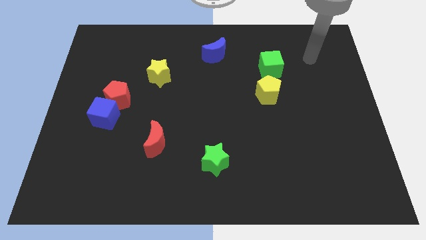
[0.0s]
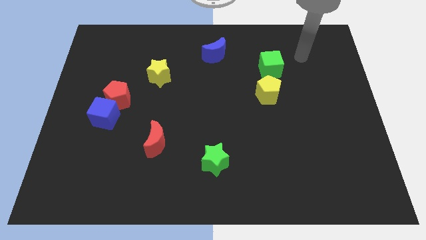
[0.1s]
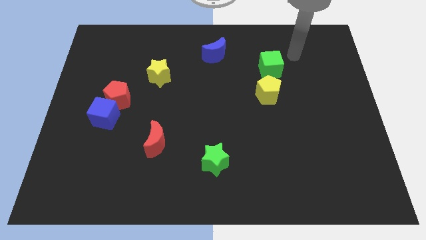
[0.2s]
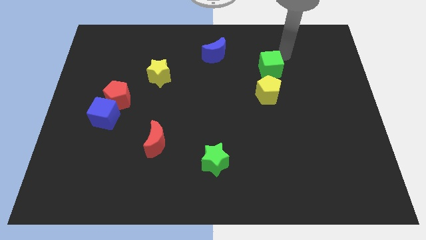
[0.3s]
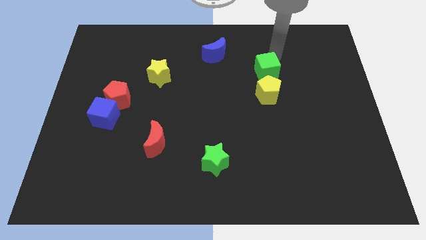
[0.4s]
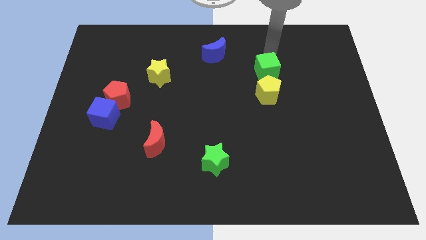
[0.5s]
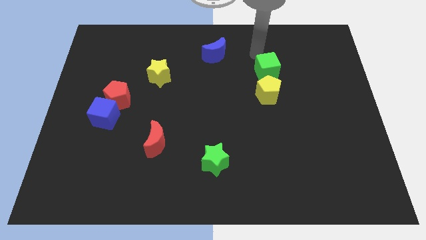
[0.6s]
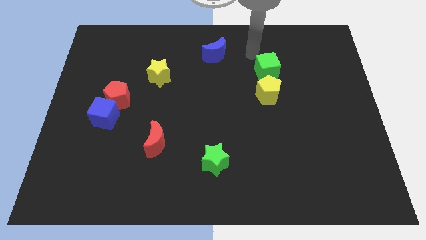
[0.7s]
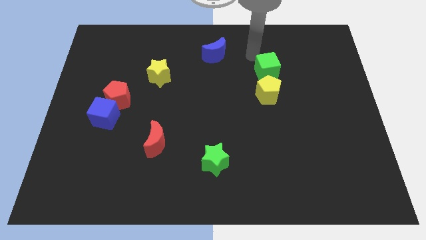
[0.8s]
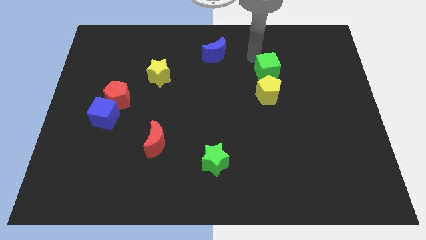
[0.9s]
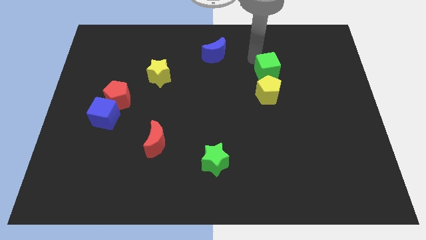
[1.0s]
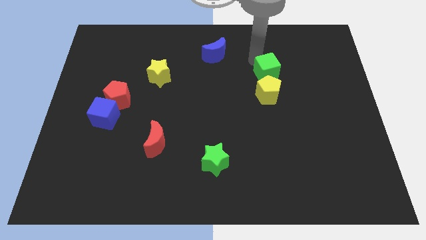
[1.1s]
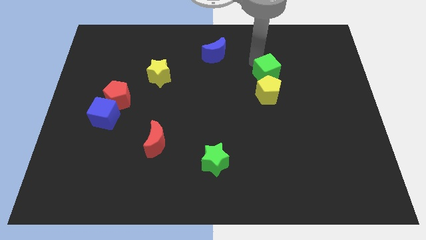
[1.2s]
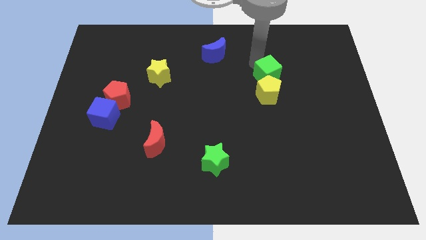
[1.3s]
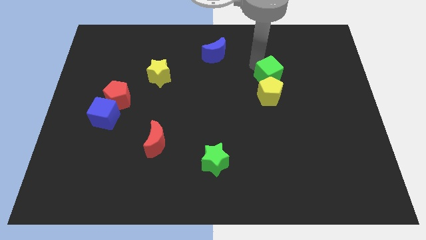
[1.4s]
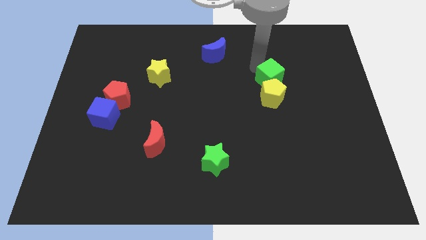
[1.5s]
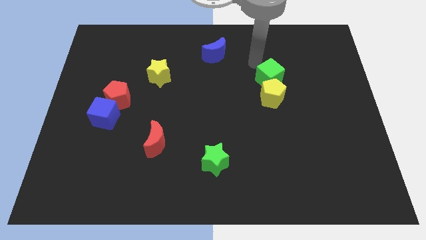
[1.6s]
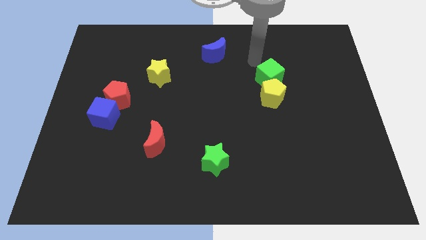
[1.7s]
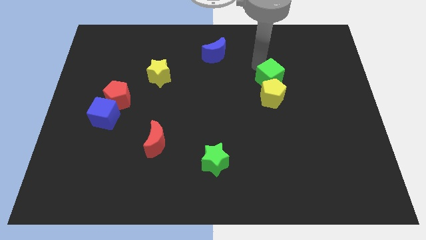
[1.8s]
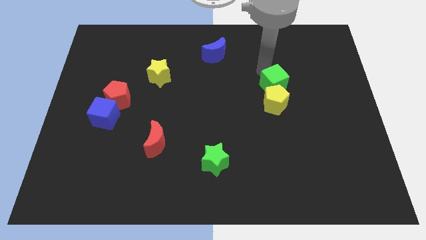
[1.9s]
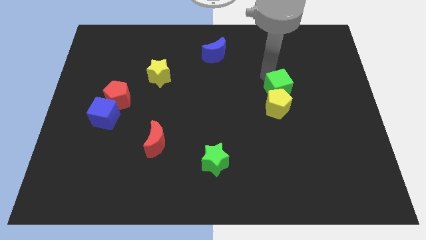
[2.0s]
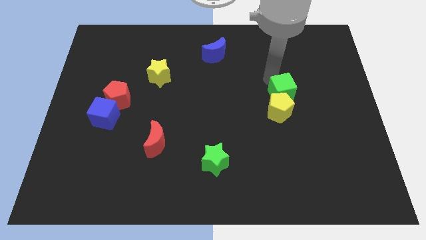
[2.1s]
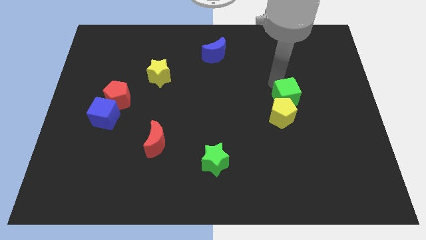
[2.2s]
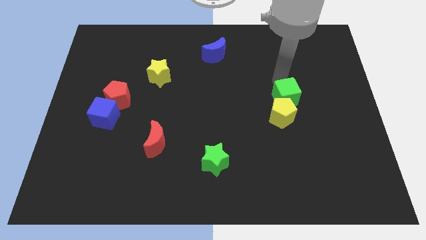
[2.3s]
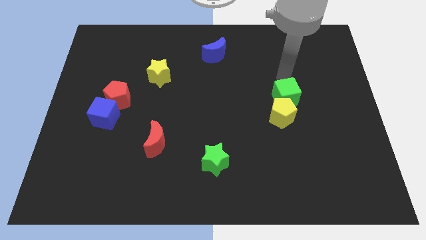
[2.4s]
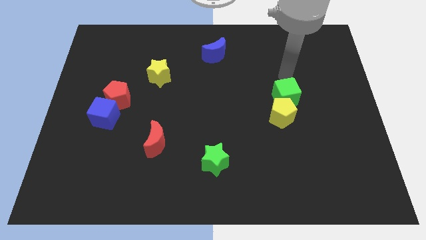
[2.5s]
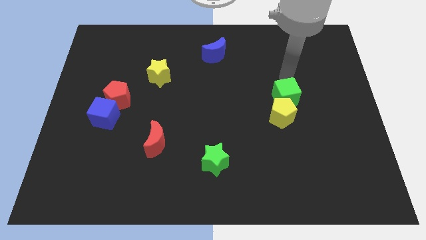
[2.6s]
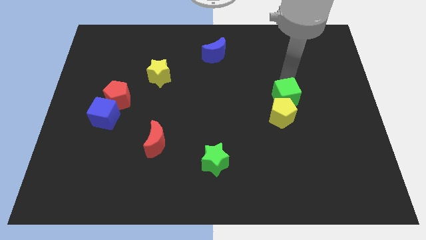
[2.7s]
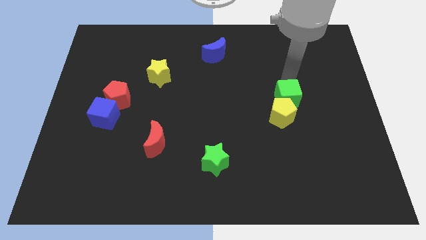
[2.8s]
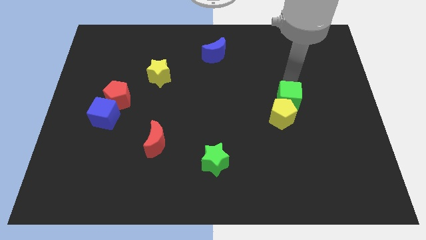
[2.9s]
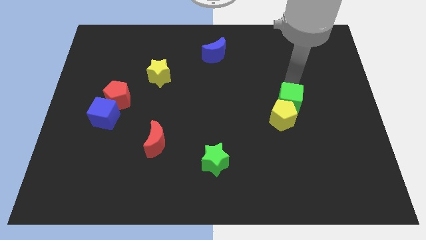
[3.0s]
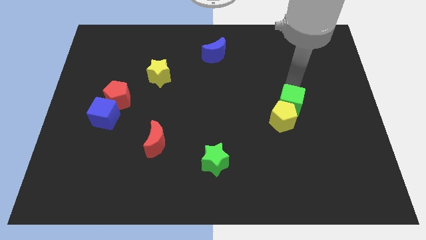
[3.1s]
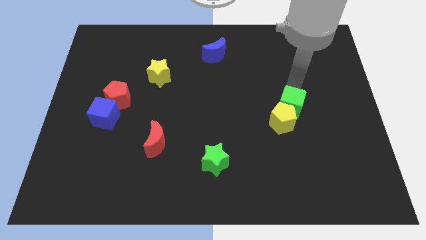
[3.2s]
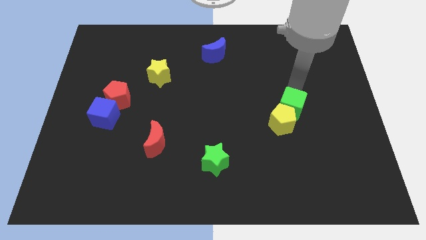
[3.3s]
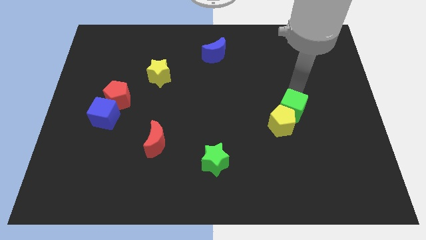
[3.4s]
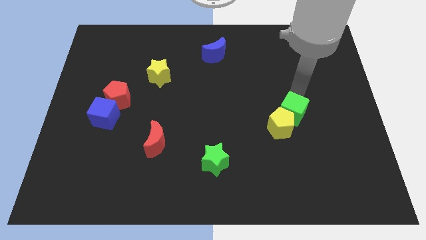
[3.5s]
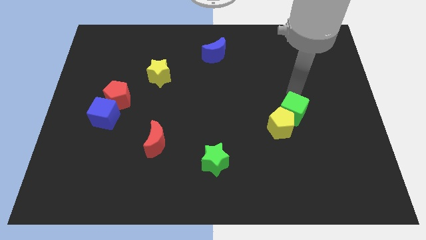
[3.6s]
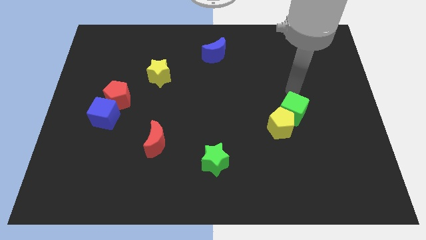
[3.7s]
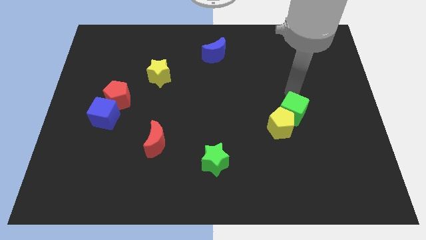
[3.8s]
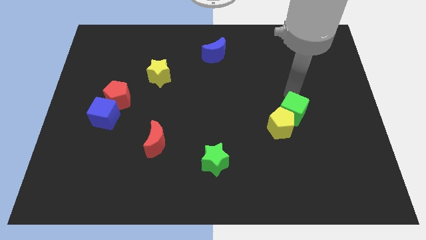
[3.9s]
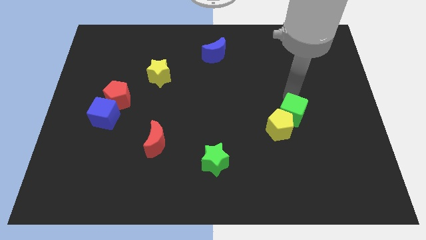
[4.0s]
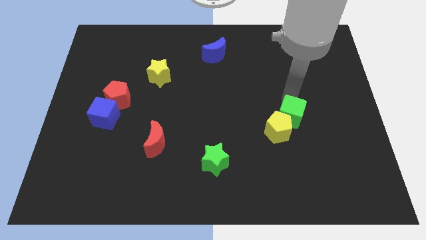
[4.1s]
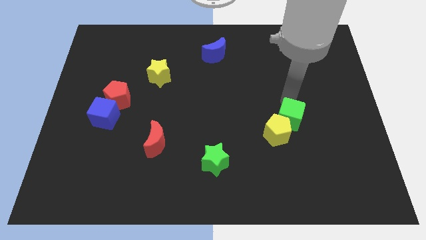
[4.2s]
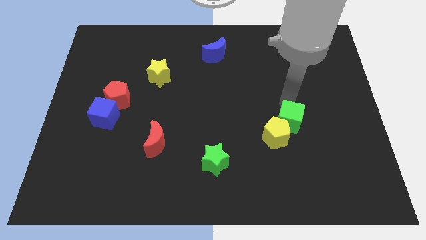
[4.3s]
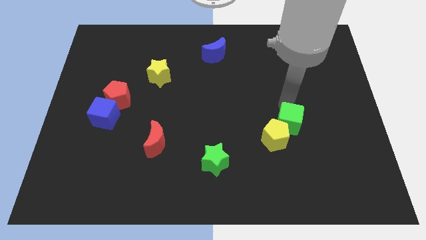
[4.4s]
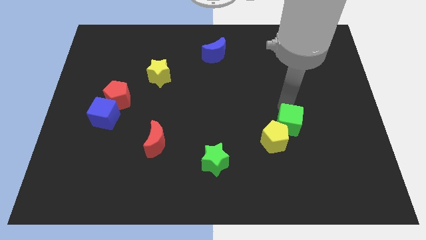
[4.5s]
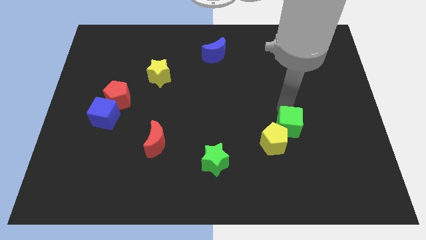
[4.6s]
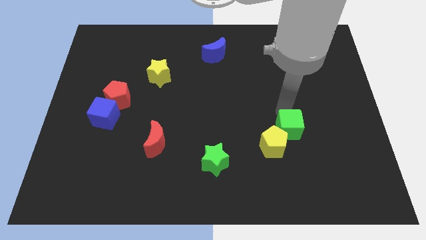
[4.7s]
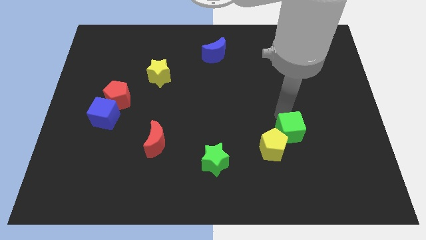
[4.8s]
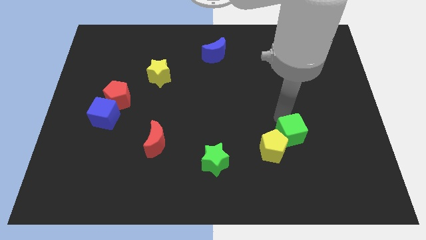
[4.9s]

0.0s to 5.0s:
slide the green cube downwards

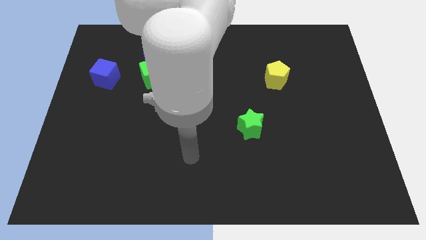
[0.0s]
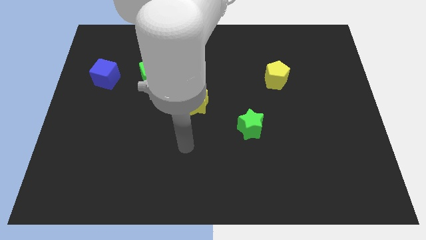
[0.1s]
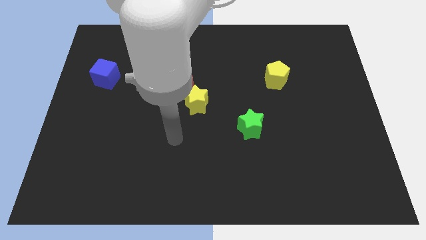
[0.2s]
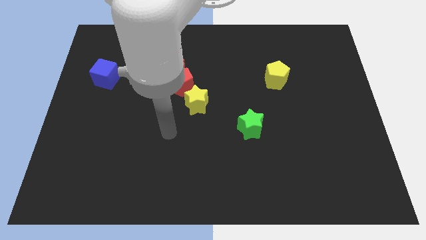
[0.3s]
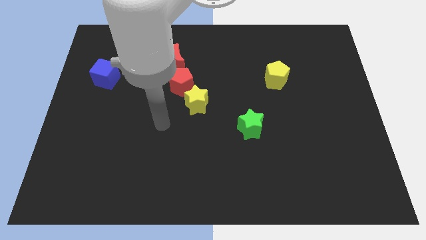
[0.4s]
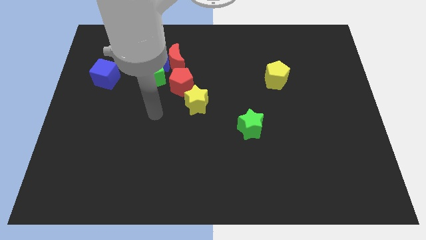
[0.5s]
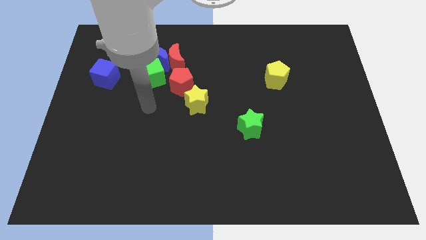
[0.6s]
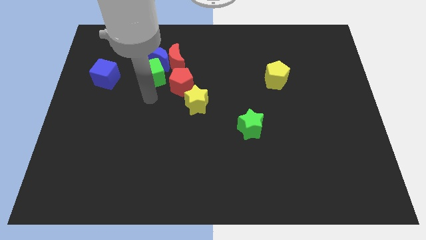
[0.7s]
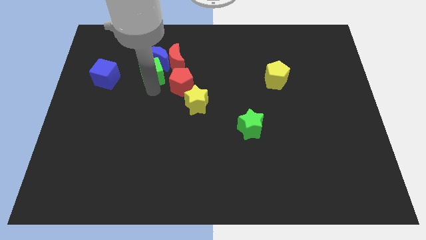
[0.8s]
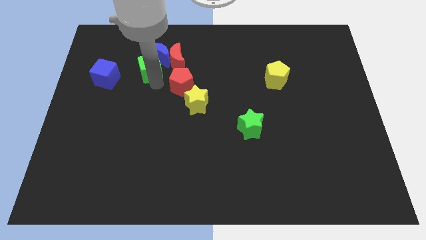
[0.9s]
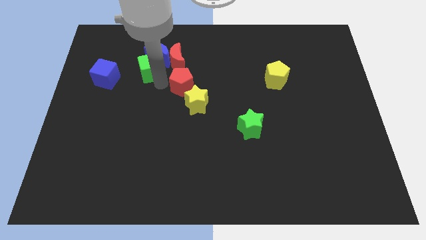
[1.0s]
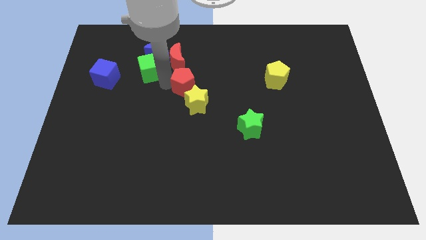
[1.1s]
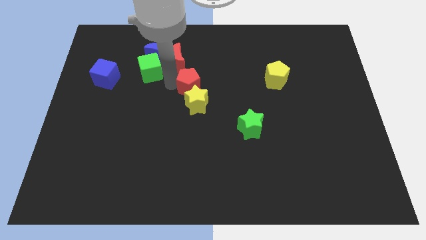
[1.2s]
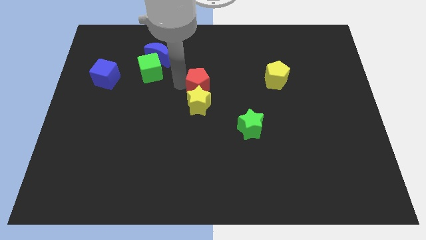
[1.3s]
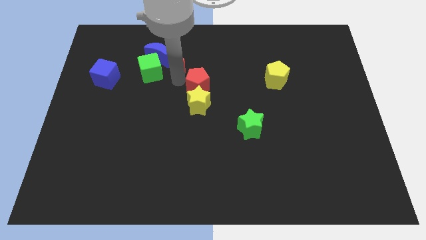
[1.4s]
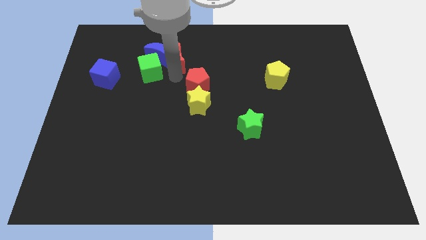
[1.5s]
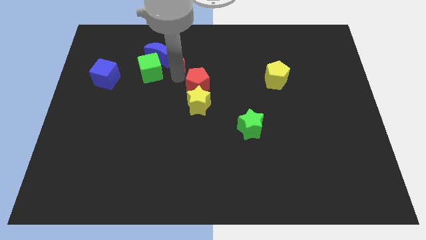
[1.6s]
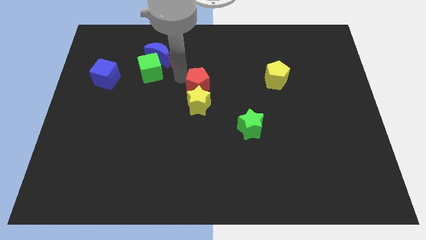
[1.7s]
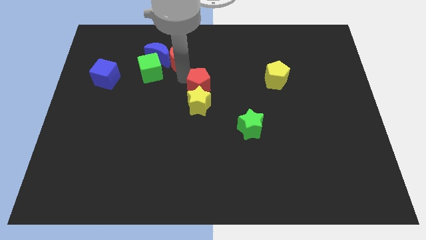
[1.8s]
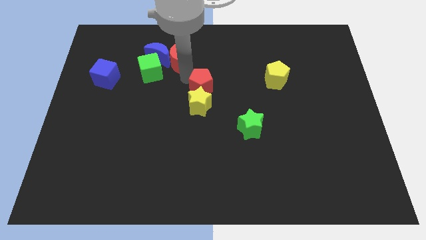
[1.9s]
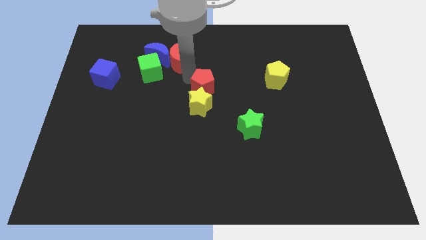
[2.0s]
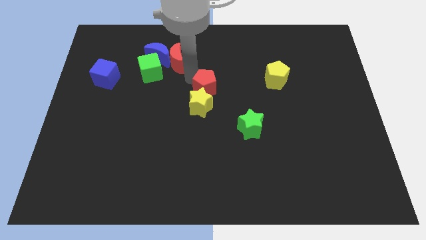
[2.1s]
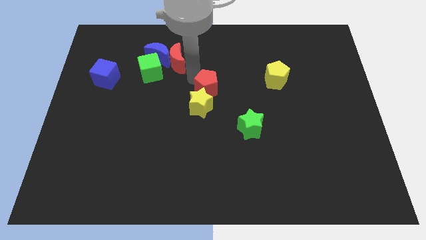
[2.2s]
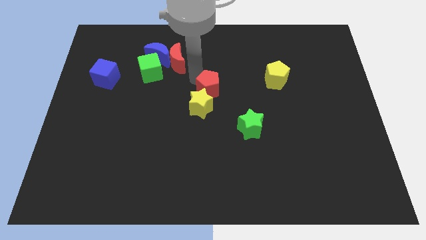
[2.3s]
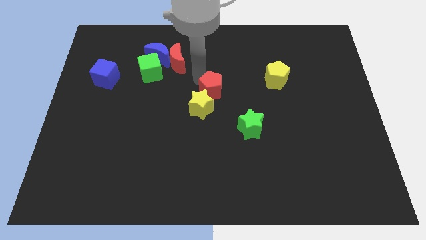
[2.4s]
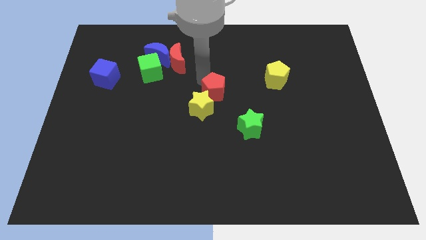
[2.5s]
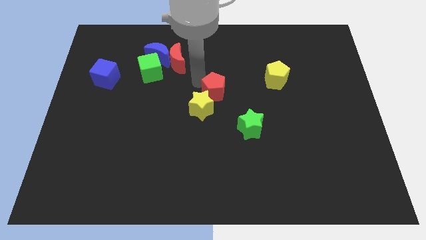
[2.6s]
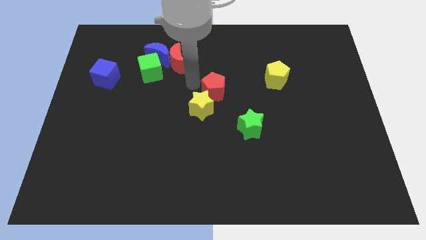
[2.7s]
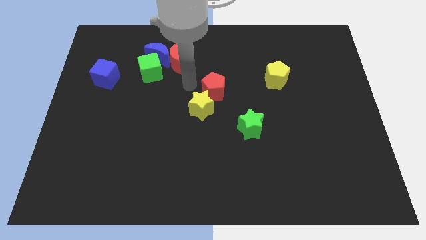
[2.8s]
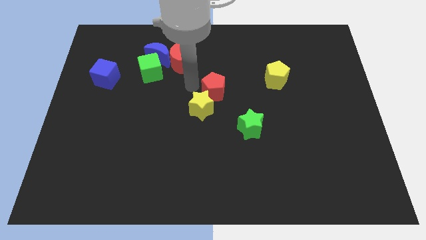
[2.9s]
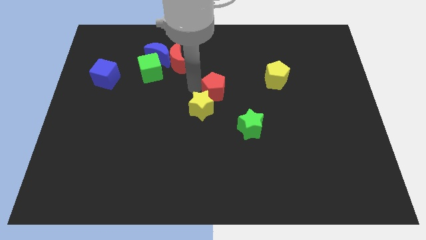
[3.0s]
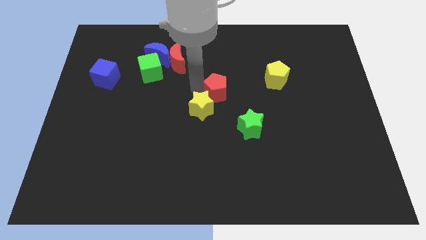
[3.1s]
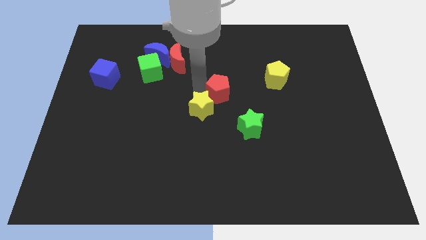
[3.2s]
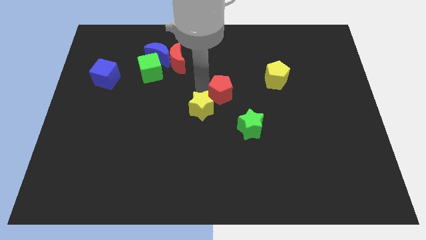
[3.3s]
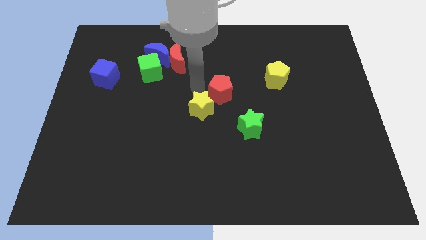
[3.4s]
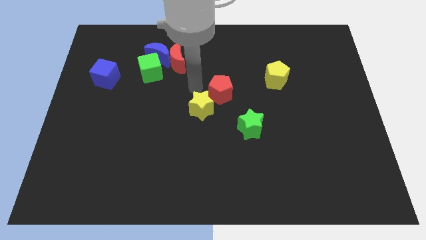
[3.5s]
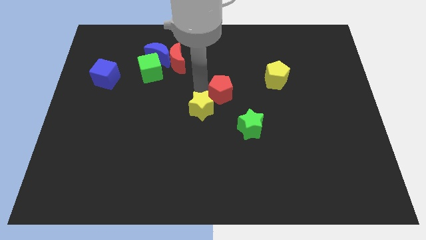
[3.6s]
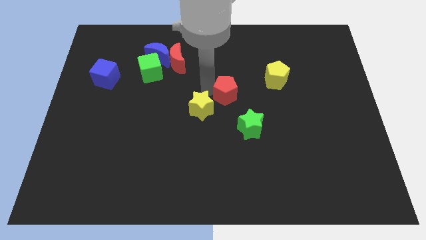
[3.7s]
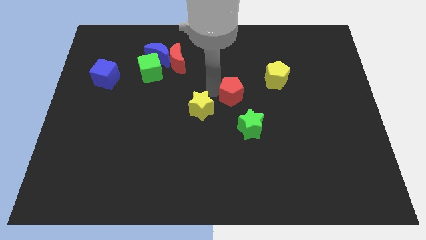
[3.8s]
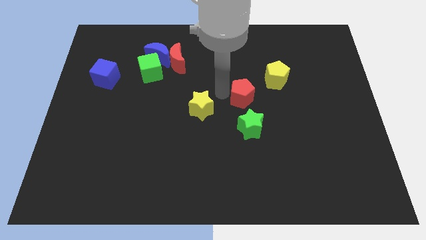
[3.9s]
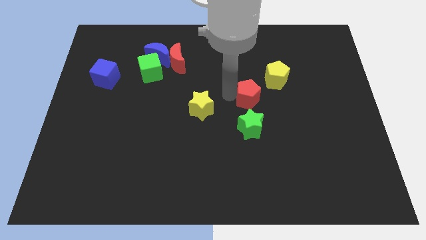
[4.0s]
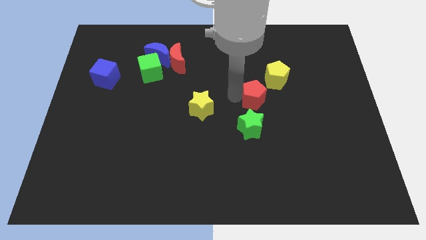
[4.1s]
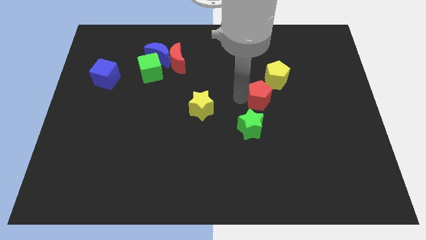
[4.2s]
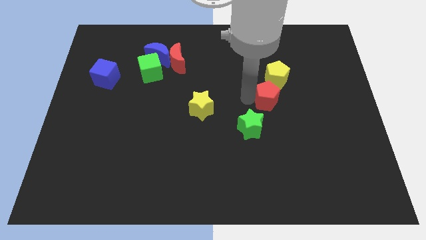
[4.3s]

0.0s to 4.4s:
push the red pentagon to the right
